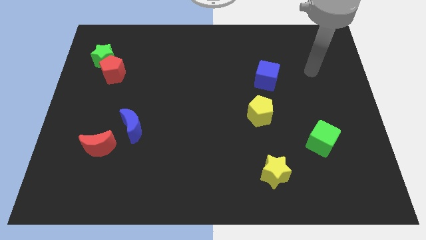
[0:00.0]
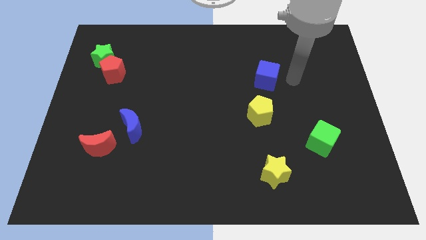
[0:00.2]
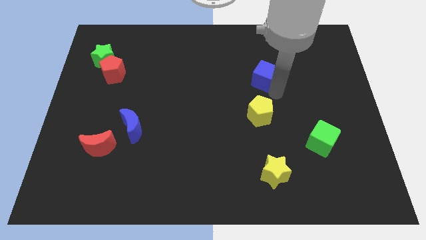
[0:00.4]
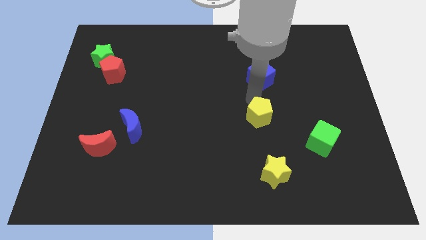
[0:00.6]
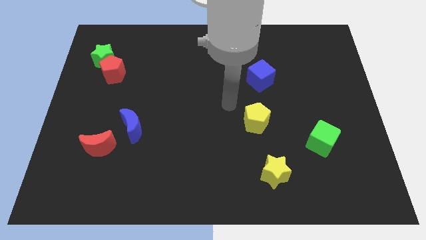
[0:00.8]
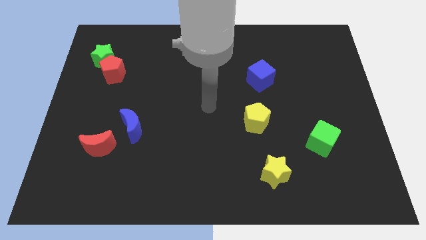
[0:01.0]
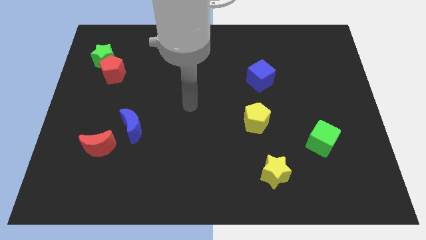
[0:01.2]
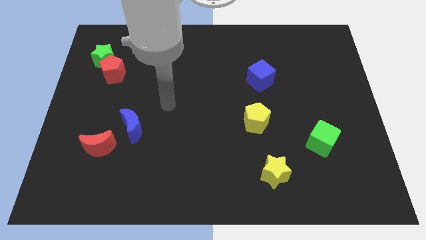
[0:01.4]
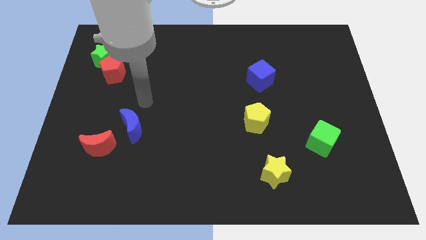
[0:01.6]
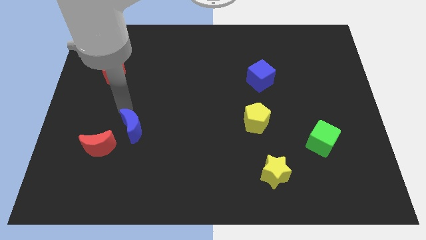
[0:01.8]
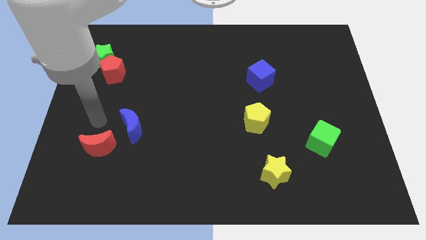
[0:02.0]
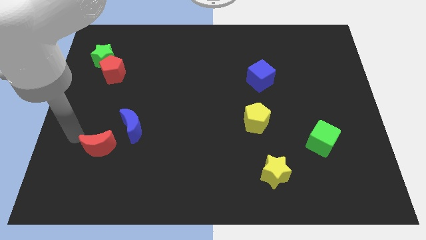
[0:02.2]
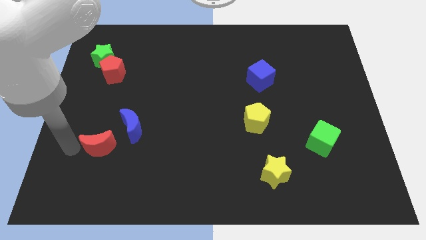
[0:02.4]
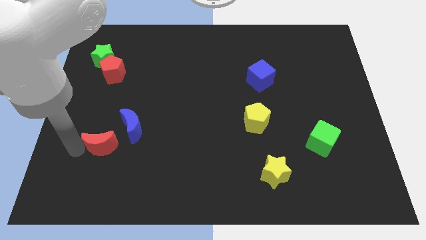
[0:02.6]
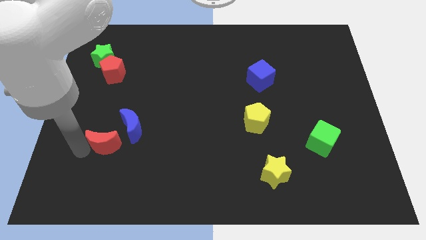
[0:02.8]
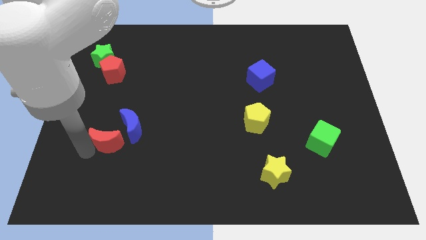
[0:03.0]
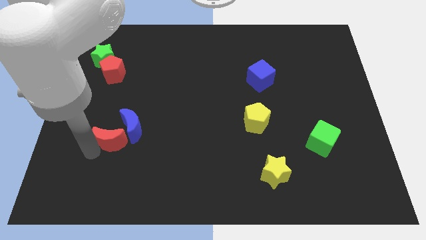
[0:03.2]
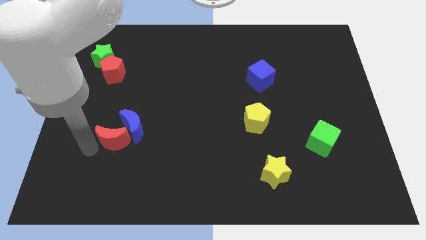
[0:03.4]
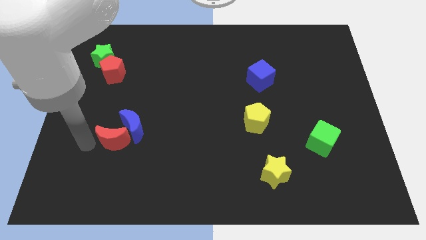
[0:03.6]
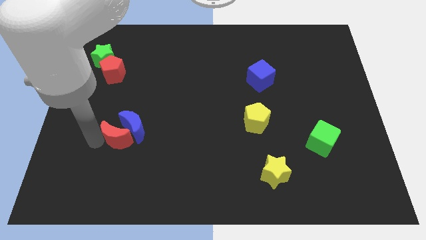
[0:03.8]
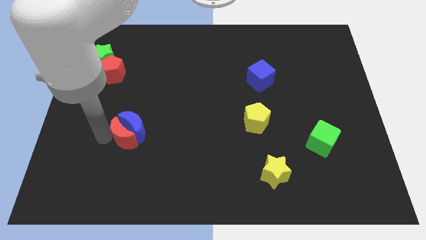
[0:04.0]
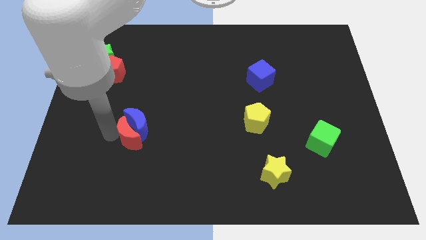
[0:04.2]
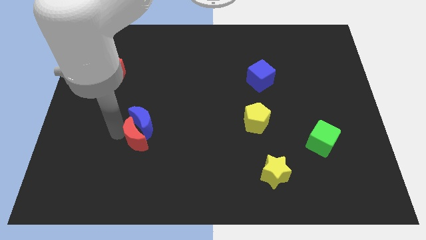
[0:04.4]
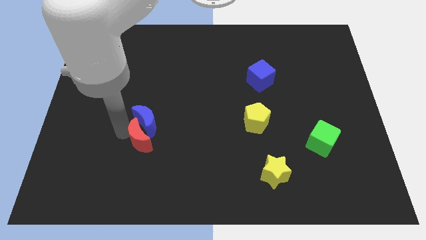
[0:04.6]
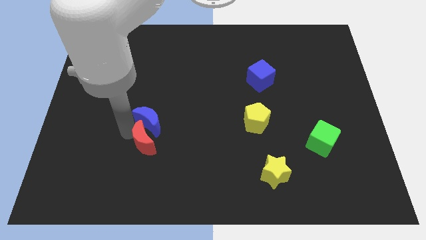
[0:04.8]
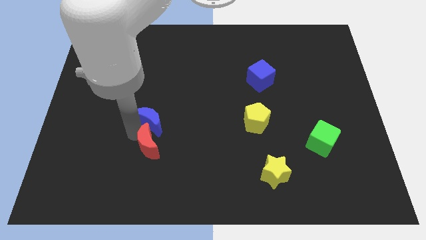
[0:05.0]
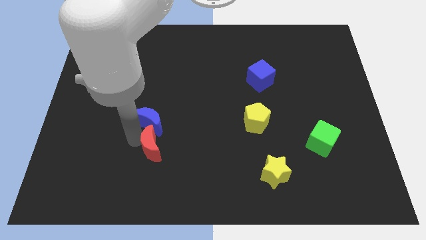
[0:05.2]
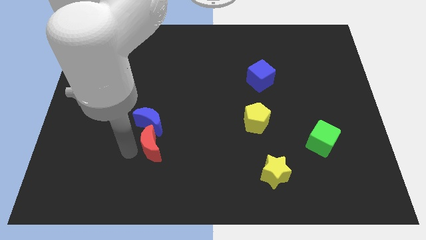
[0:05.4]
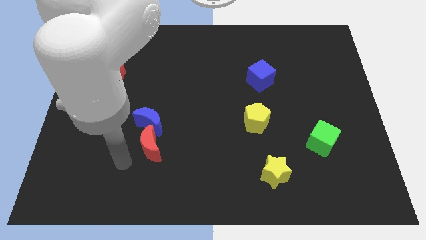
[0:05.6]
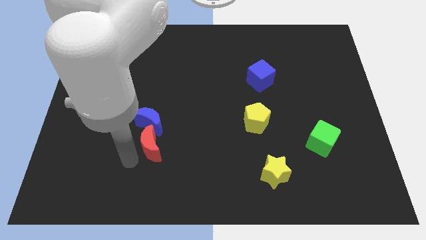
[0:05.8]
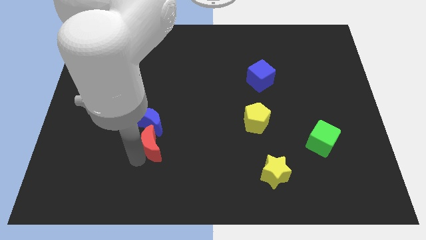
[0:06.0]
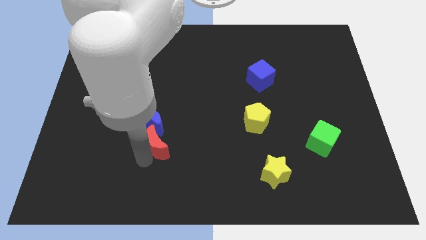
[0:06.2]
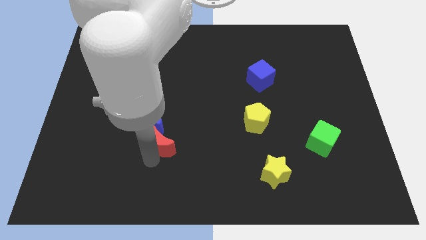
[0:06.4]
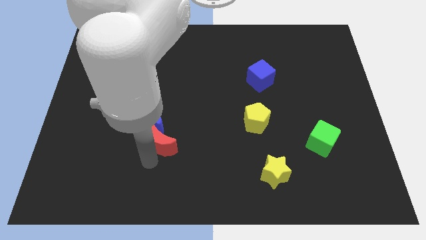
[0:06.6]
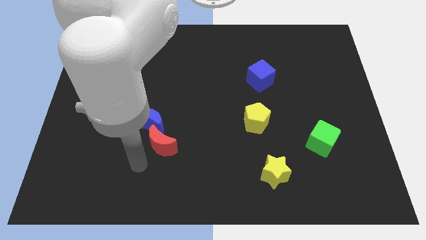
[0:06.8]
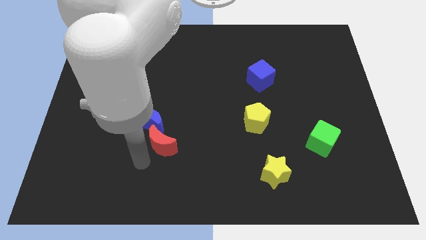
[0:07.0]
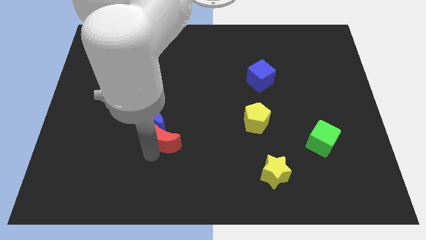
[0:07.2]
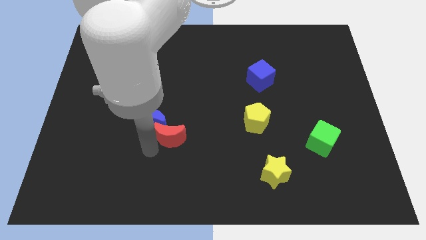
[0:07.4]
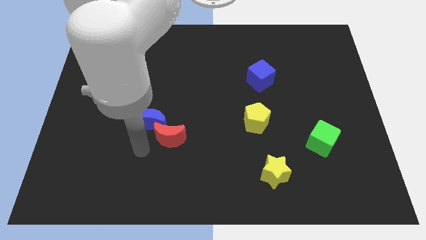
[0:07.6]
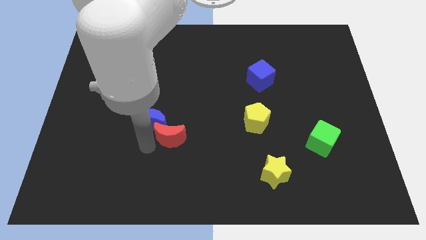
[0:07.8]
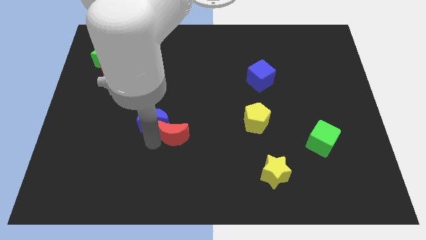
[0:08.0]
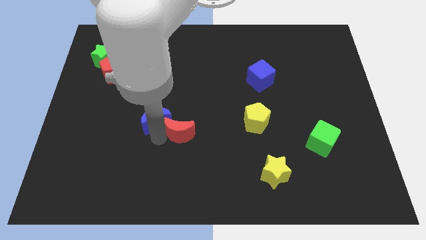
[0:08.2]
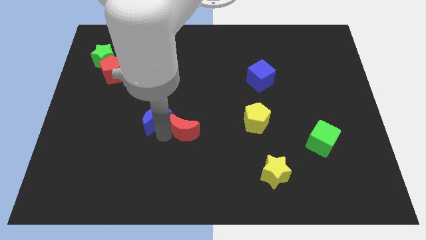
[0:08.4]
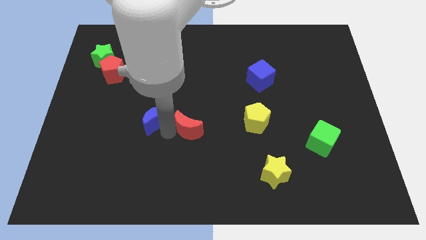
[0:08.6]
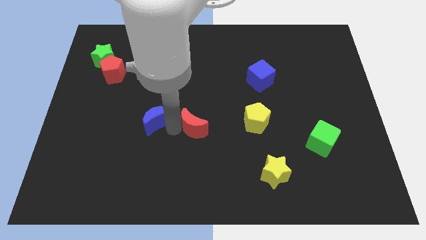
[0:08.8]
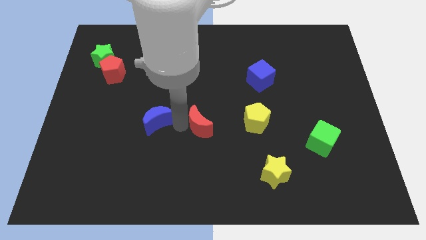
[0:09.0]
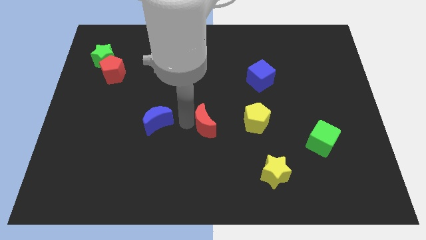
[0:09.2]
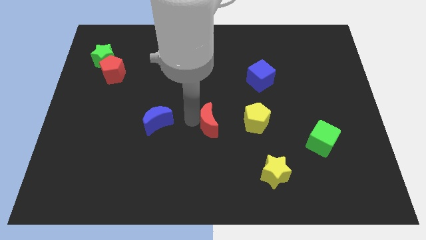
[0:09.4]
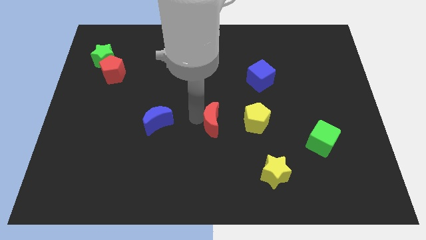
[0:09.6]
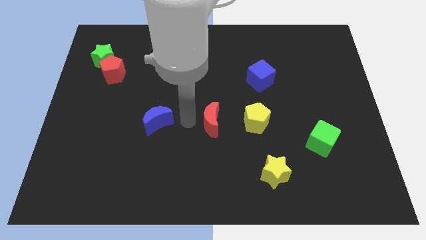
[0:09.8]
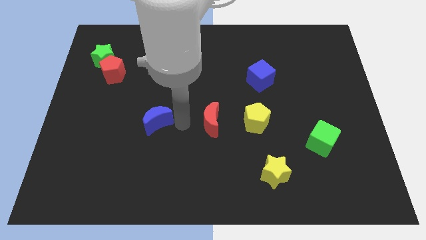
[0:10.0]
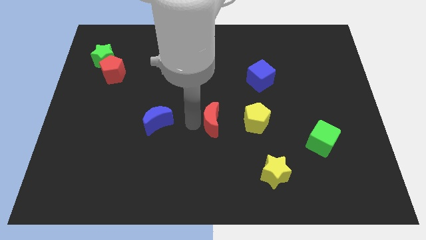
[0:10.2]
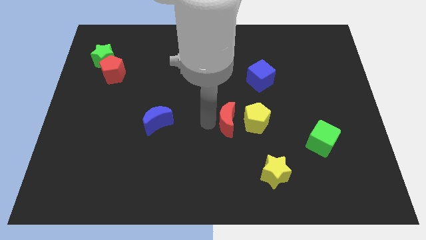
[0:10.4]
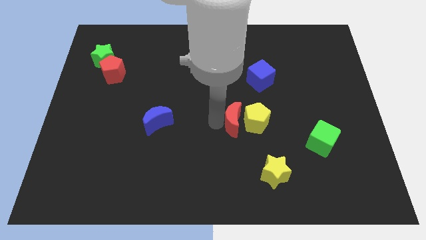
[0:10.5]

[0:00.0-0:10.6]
move the red moon next to the yellow pentagon

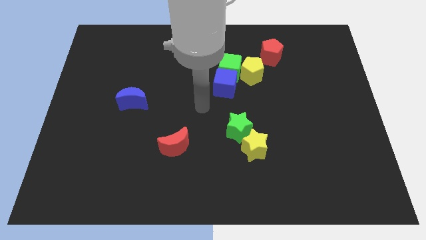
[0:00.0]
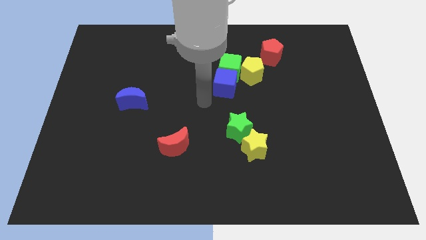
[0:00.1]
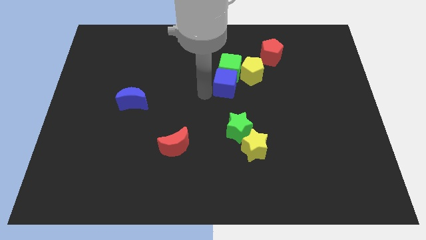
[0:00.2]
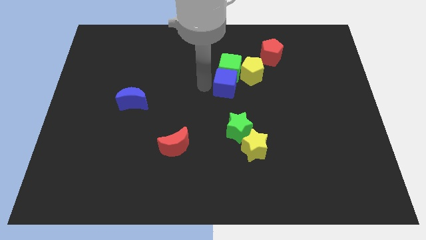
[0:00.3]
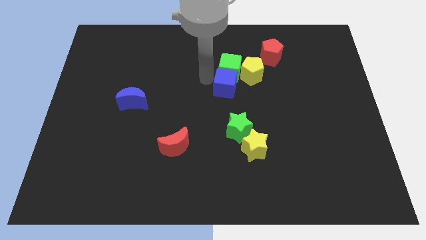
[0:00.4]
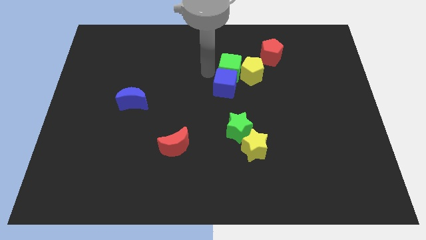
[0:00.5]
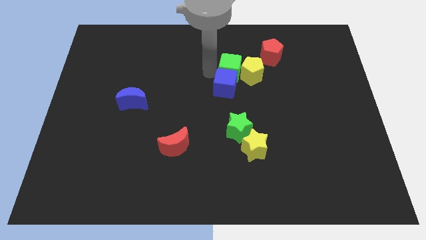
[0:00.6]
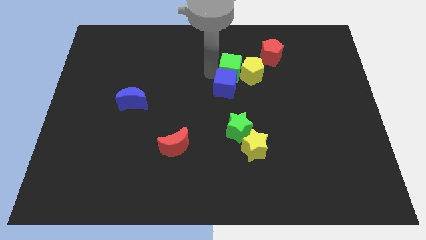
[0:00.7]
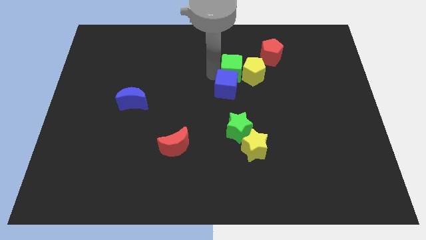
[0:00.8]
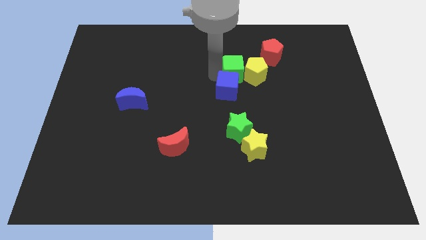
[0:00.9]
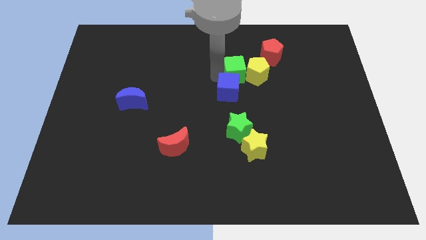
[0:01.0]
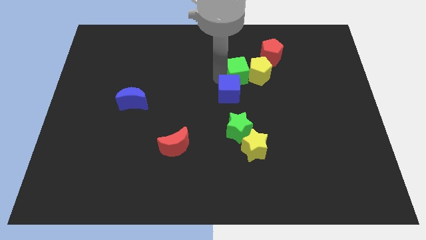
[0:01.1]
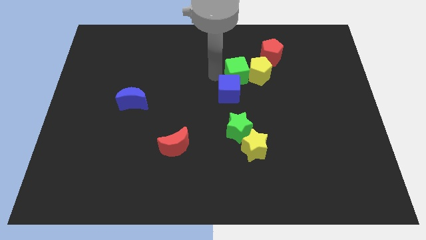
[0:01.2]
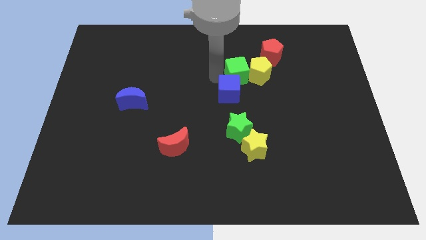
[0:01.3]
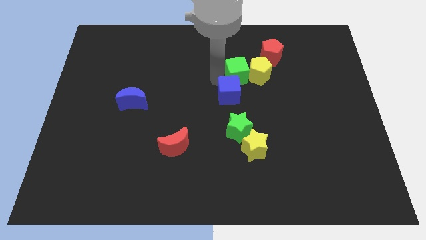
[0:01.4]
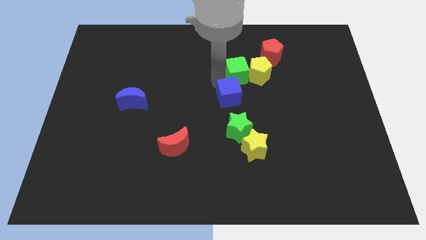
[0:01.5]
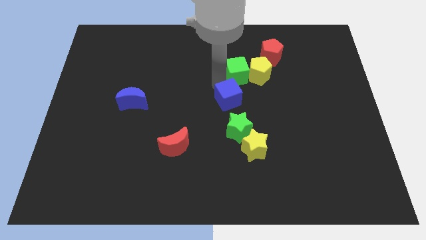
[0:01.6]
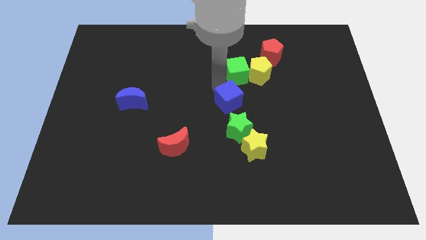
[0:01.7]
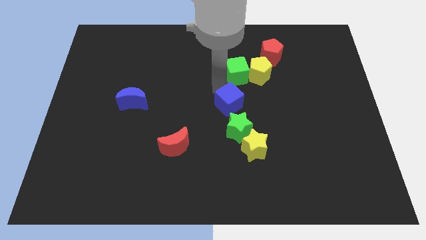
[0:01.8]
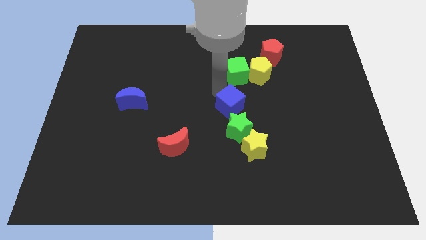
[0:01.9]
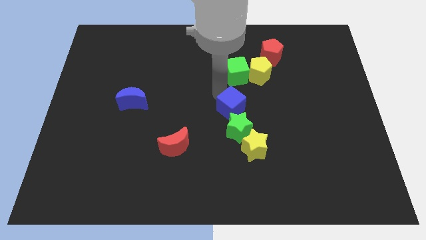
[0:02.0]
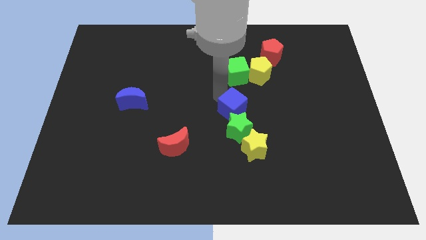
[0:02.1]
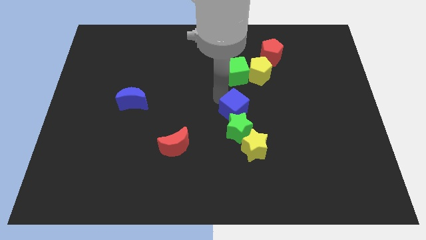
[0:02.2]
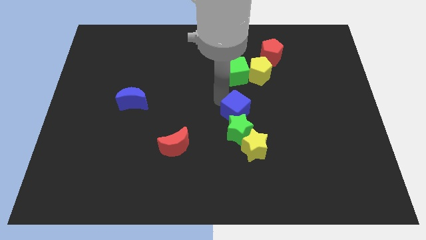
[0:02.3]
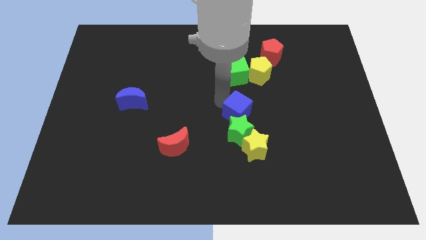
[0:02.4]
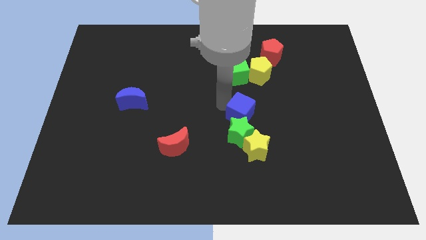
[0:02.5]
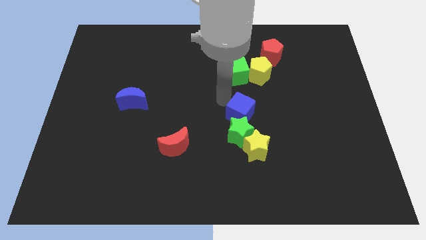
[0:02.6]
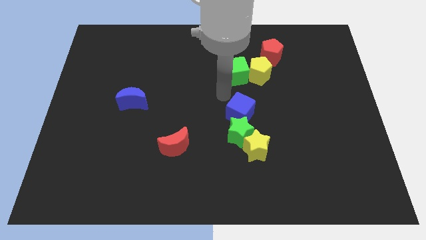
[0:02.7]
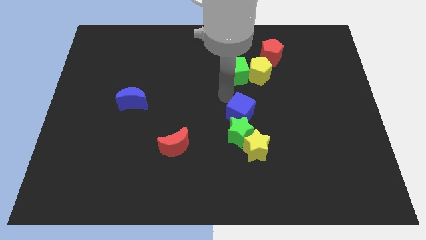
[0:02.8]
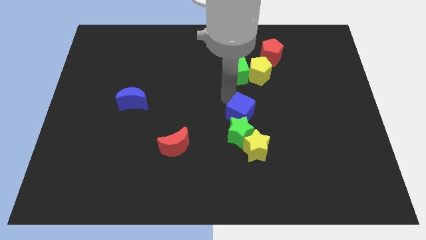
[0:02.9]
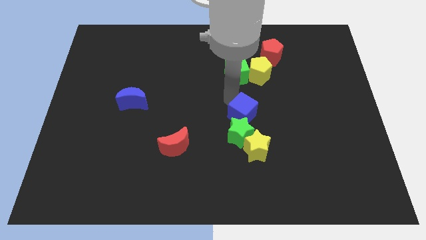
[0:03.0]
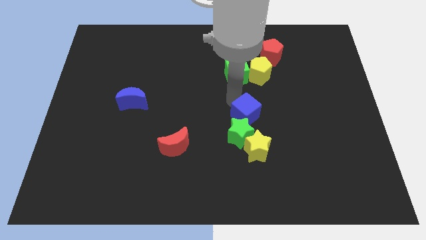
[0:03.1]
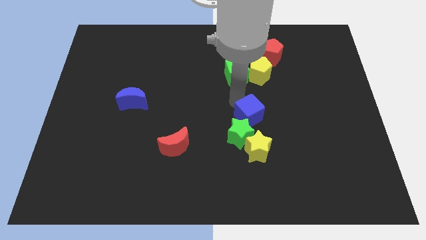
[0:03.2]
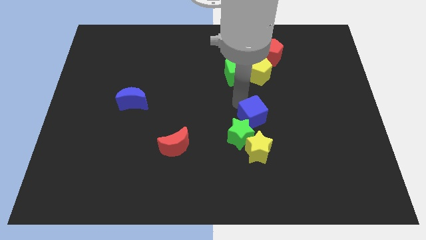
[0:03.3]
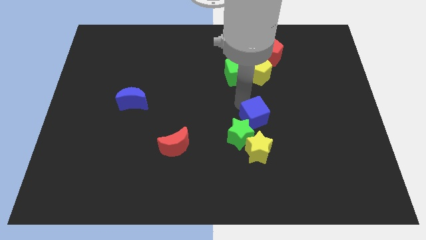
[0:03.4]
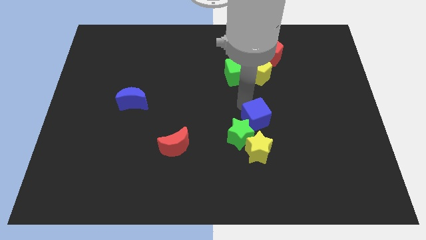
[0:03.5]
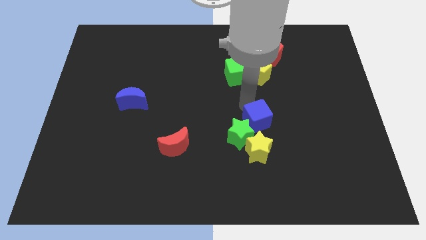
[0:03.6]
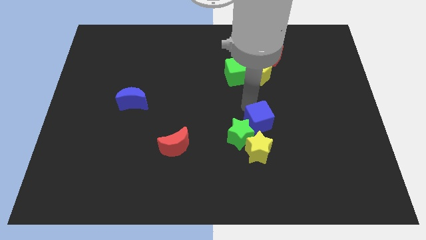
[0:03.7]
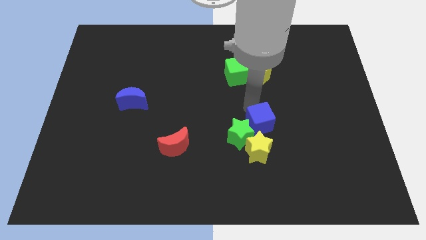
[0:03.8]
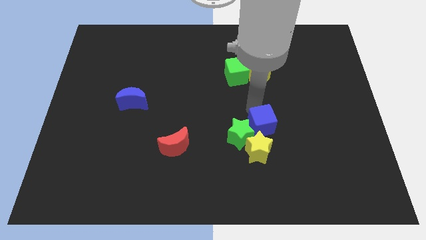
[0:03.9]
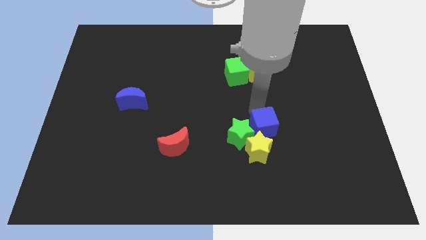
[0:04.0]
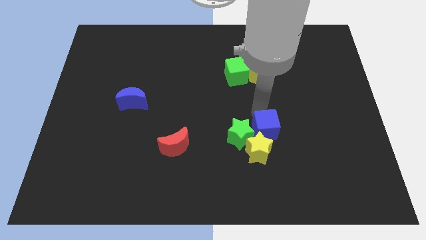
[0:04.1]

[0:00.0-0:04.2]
push the blue cube towards the yellow star
